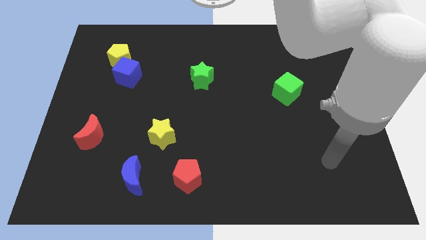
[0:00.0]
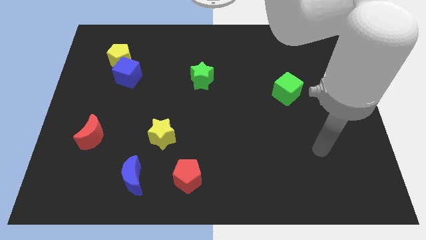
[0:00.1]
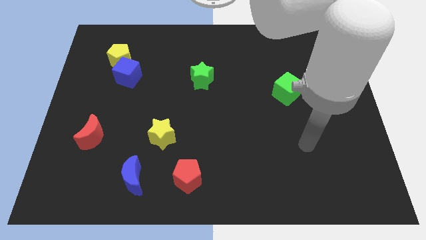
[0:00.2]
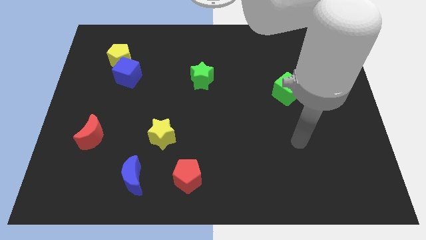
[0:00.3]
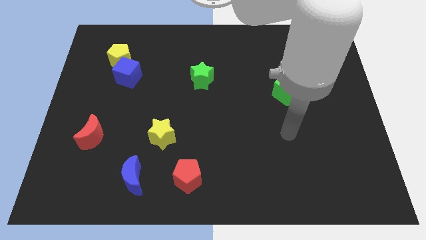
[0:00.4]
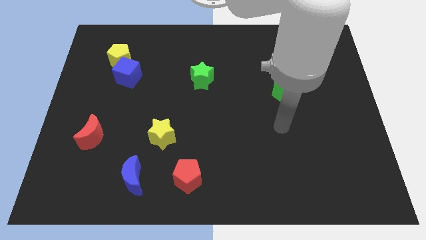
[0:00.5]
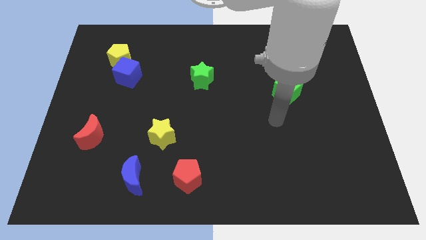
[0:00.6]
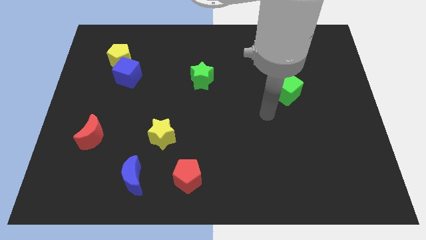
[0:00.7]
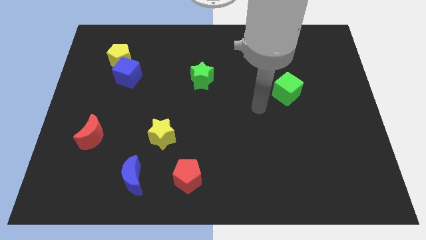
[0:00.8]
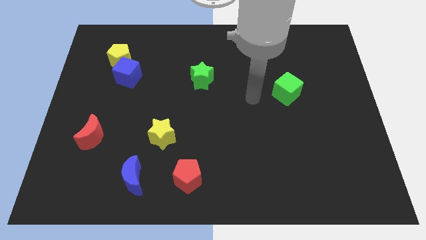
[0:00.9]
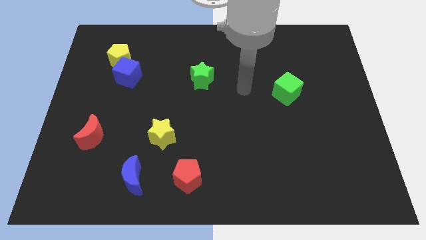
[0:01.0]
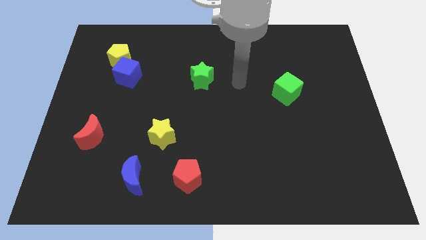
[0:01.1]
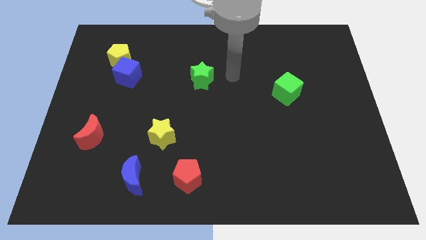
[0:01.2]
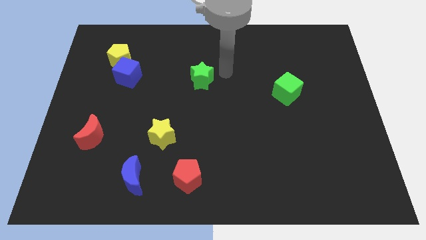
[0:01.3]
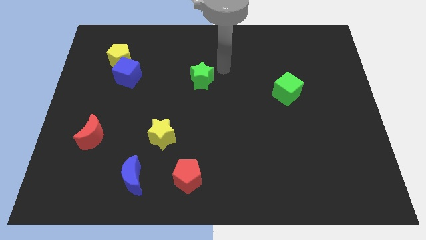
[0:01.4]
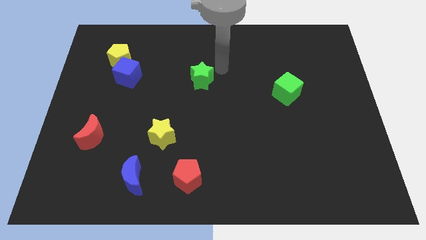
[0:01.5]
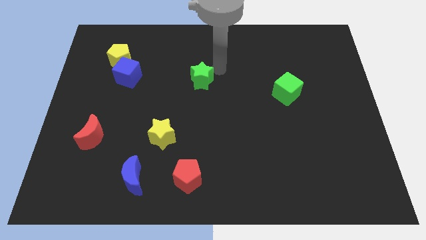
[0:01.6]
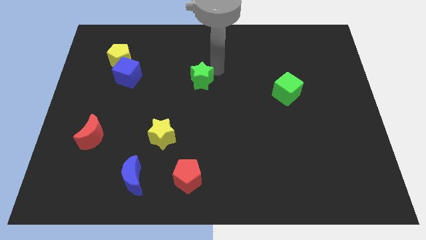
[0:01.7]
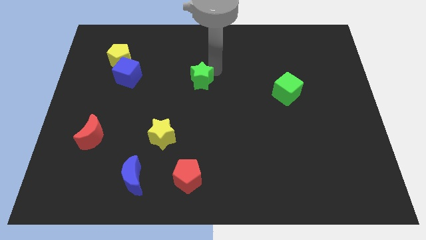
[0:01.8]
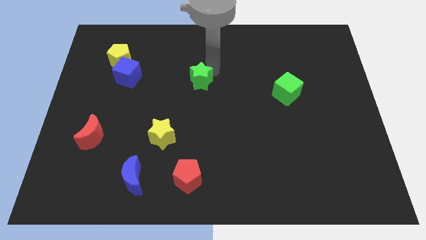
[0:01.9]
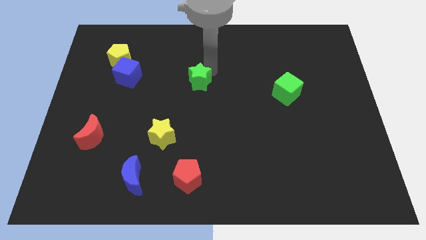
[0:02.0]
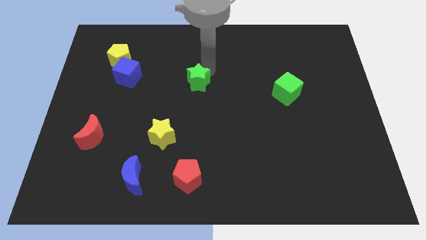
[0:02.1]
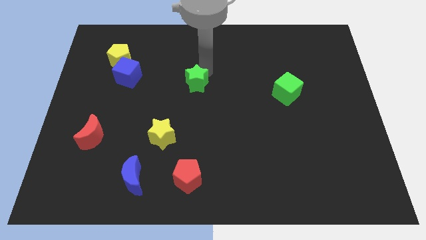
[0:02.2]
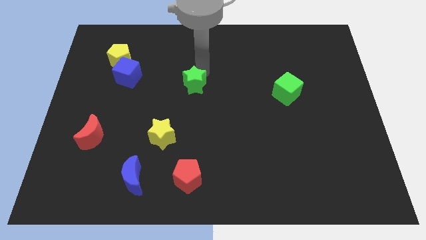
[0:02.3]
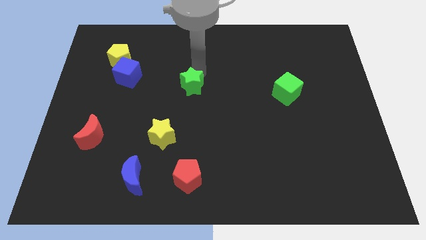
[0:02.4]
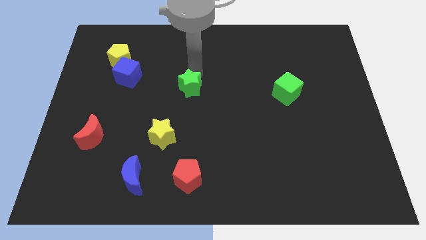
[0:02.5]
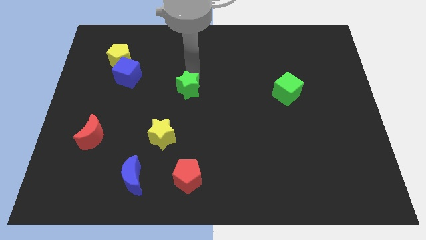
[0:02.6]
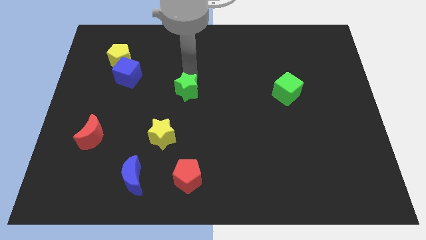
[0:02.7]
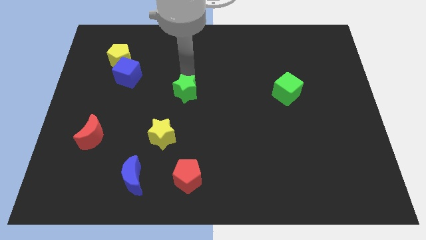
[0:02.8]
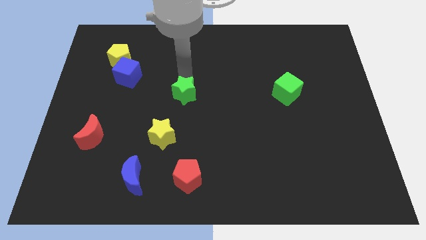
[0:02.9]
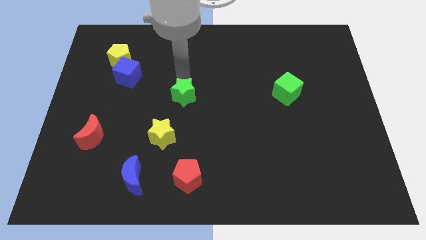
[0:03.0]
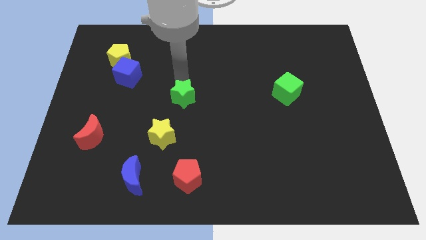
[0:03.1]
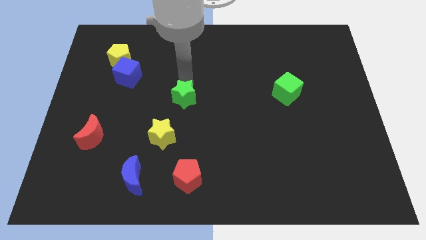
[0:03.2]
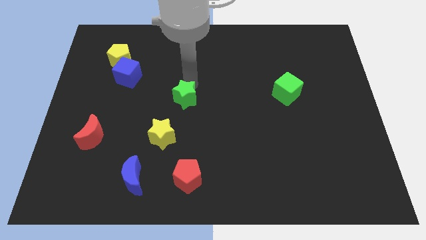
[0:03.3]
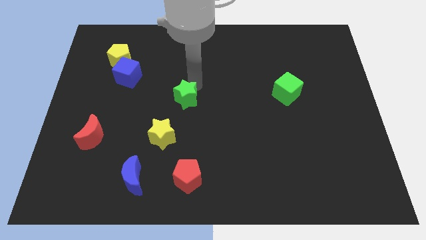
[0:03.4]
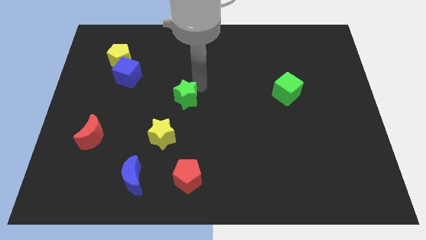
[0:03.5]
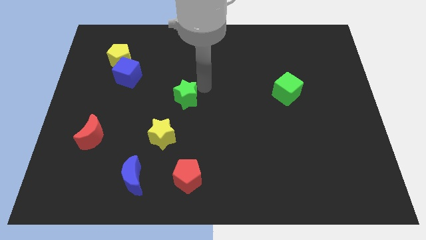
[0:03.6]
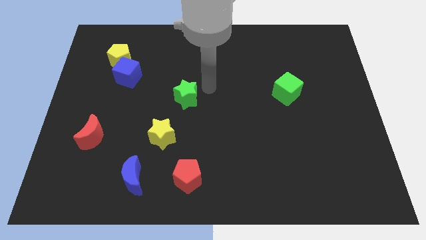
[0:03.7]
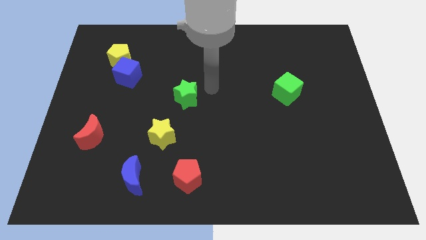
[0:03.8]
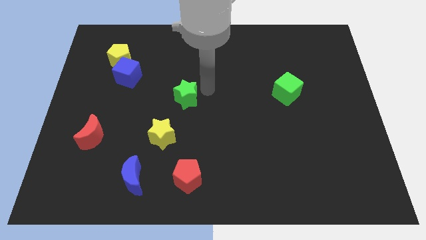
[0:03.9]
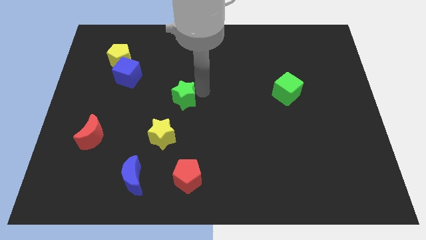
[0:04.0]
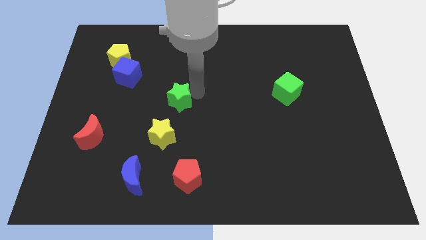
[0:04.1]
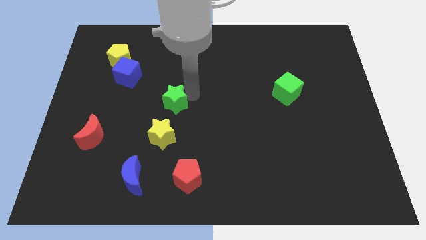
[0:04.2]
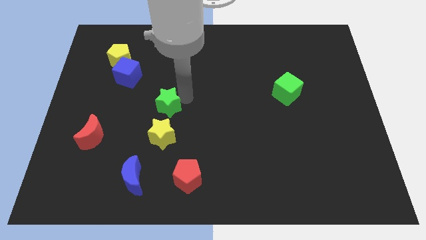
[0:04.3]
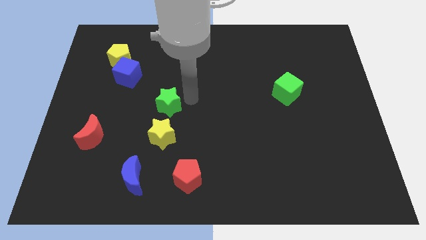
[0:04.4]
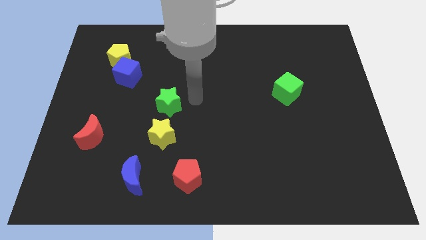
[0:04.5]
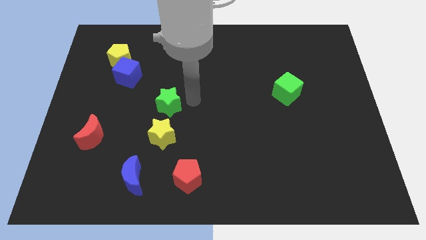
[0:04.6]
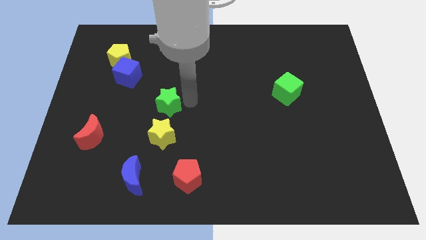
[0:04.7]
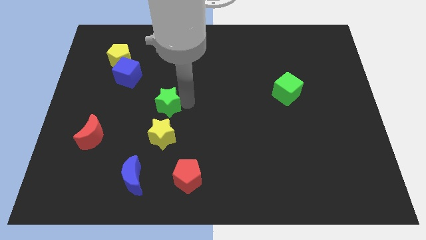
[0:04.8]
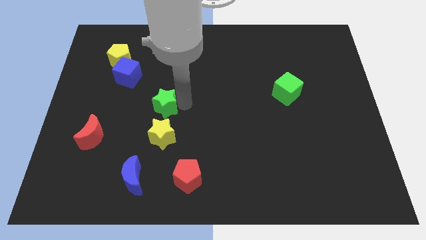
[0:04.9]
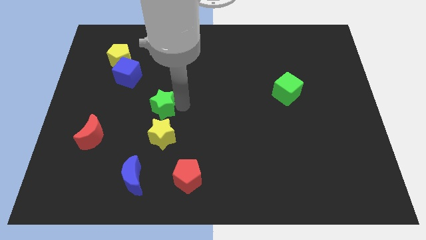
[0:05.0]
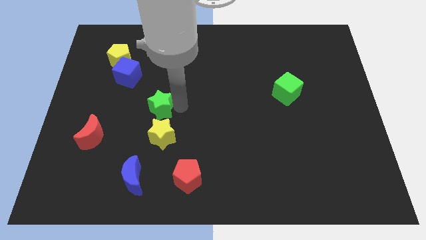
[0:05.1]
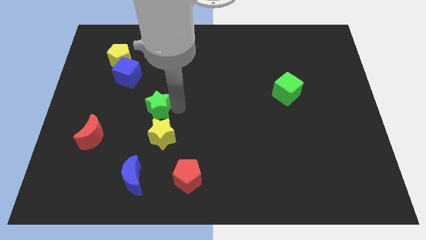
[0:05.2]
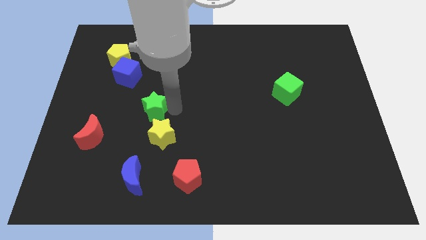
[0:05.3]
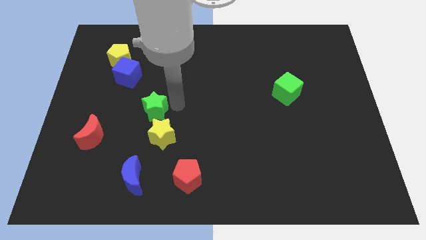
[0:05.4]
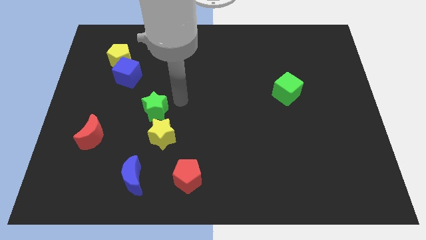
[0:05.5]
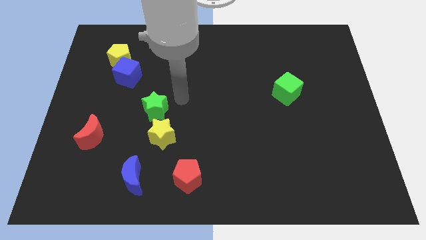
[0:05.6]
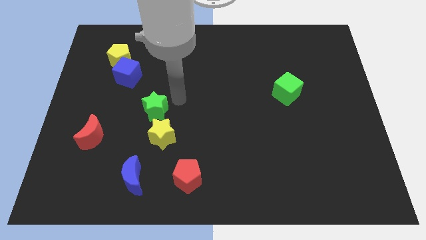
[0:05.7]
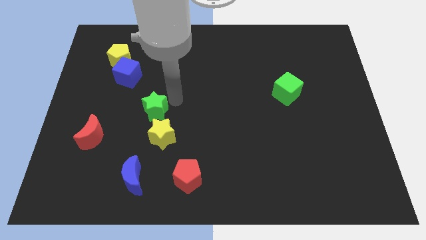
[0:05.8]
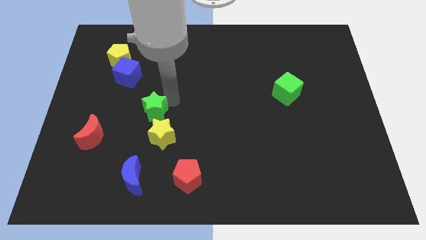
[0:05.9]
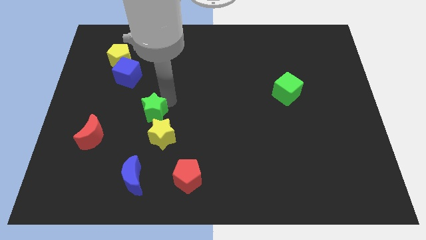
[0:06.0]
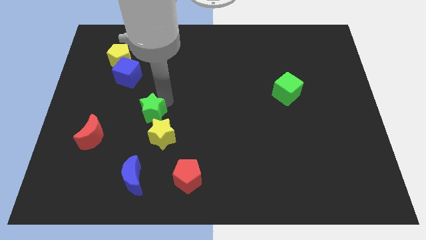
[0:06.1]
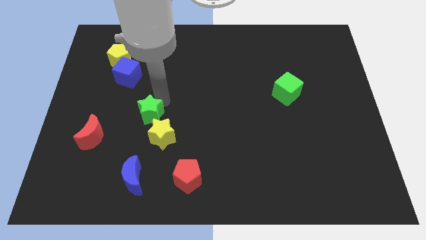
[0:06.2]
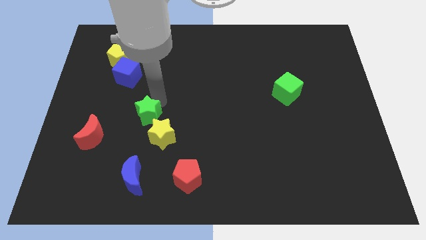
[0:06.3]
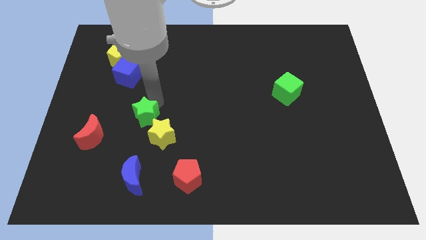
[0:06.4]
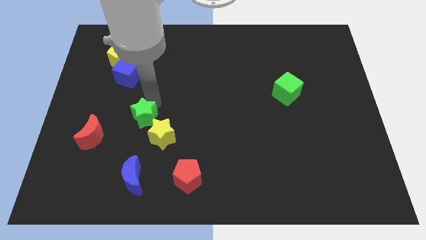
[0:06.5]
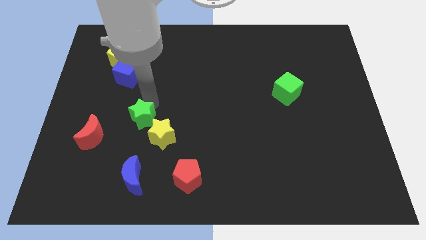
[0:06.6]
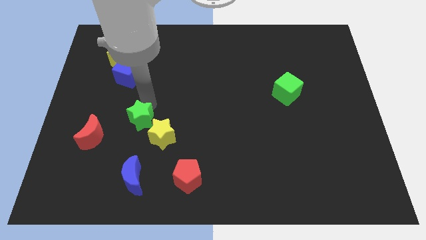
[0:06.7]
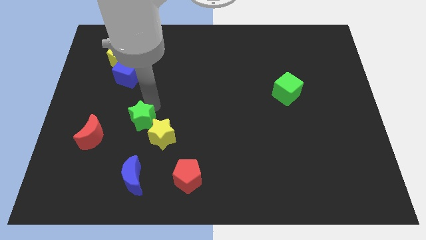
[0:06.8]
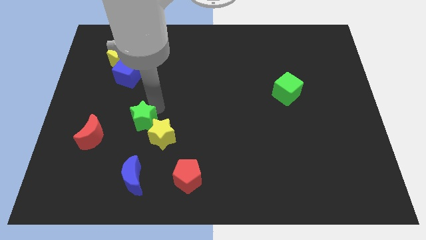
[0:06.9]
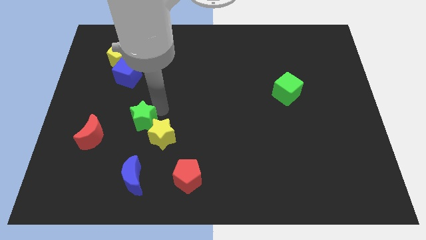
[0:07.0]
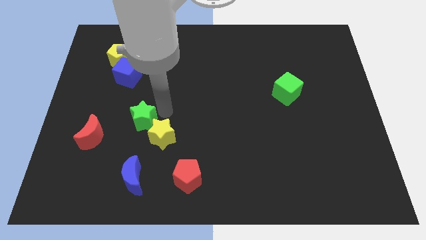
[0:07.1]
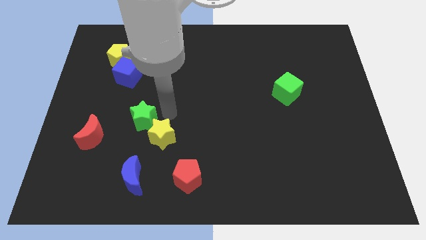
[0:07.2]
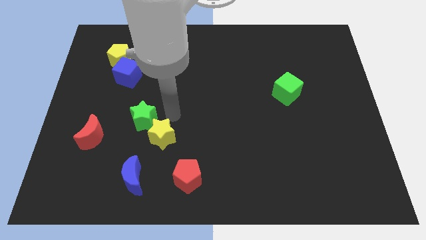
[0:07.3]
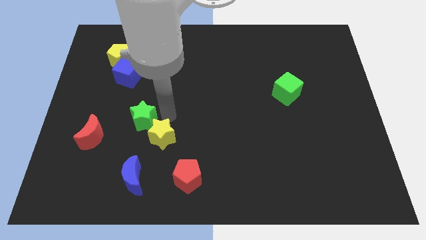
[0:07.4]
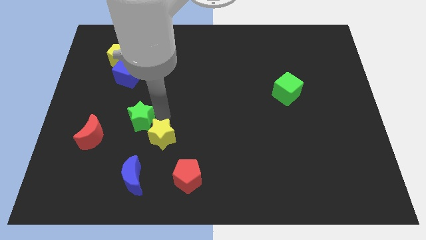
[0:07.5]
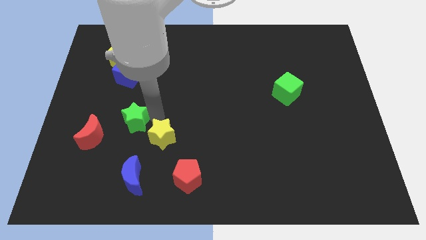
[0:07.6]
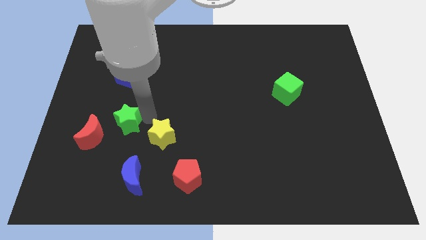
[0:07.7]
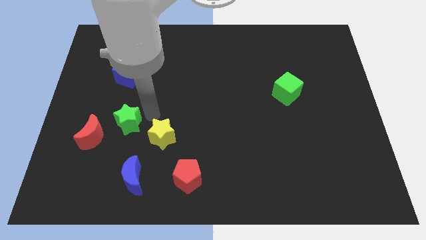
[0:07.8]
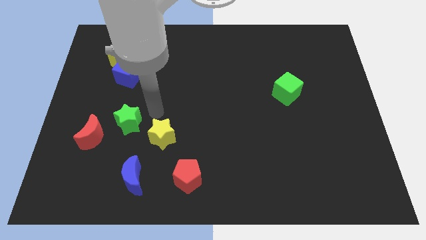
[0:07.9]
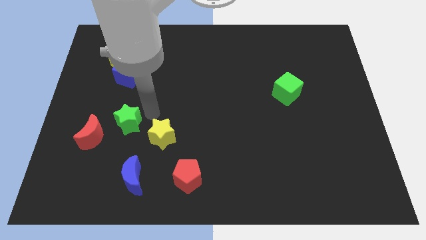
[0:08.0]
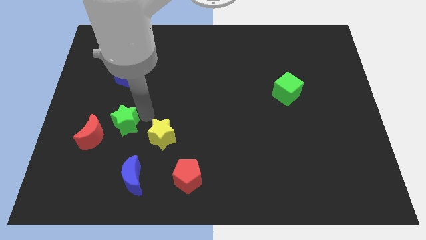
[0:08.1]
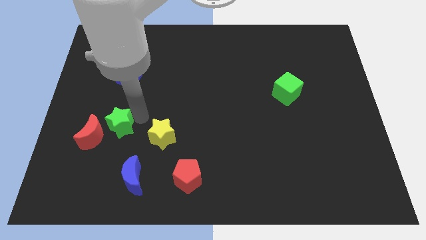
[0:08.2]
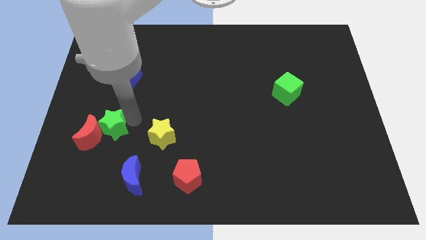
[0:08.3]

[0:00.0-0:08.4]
move the green star close to the red moon
